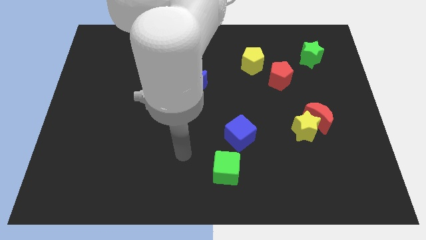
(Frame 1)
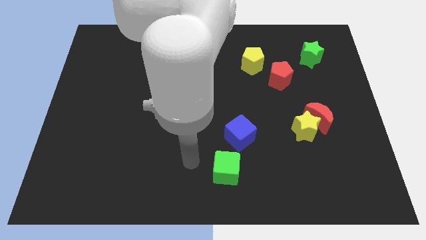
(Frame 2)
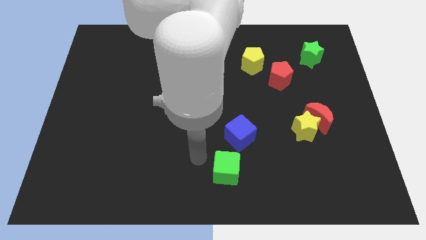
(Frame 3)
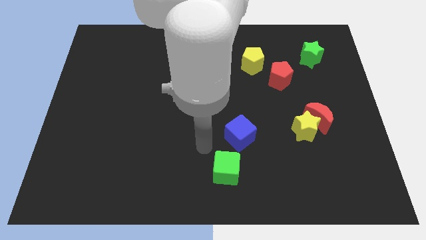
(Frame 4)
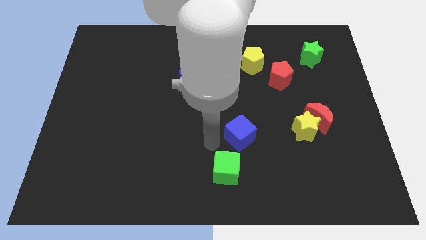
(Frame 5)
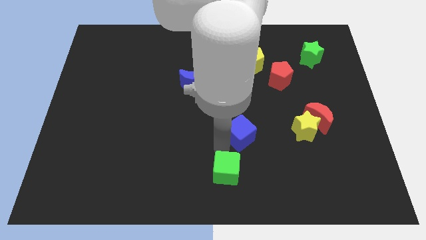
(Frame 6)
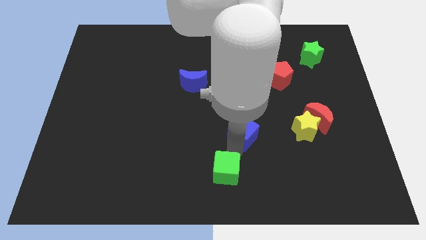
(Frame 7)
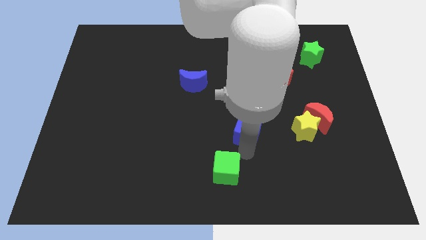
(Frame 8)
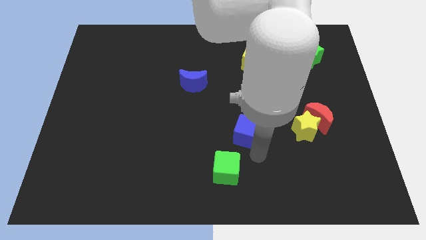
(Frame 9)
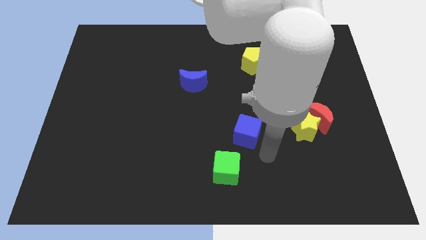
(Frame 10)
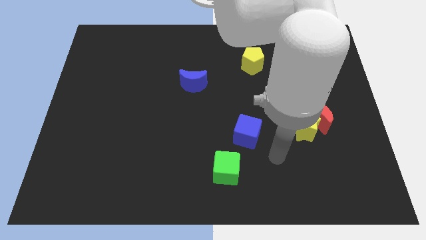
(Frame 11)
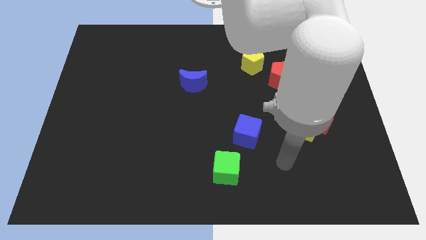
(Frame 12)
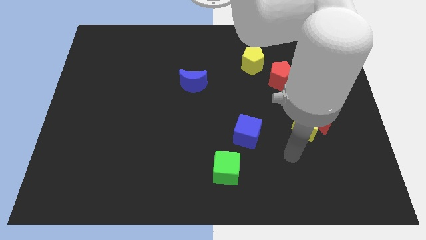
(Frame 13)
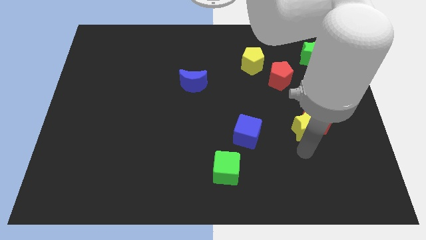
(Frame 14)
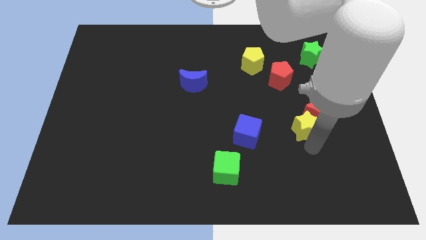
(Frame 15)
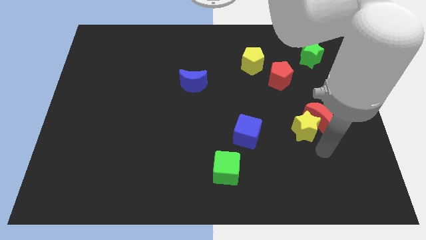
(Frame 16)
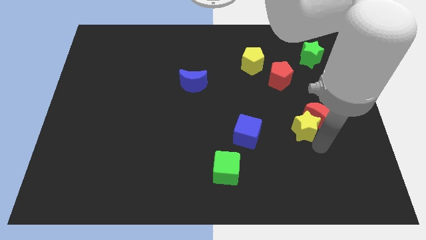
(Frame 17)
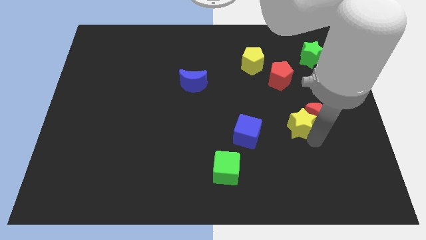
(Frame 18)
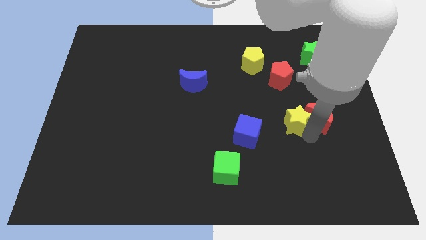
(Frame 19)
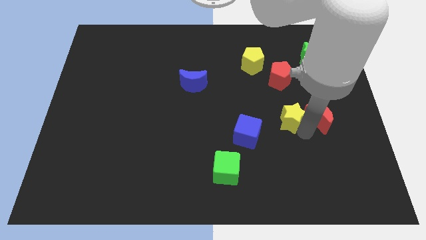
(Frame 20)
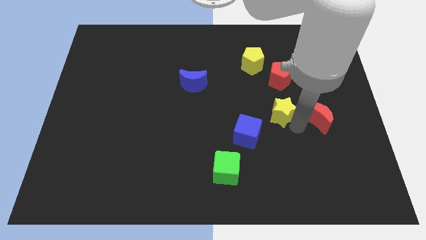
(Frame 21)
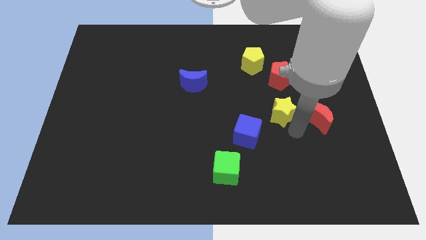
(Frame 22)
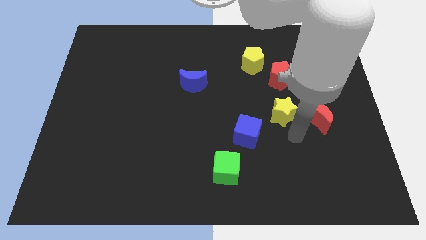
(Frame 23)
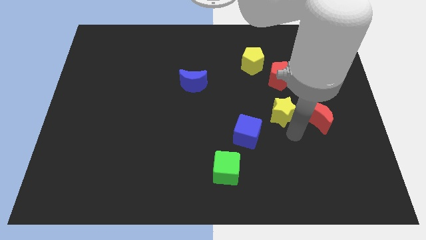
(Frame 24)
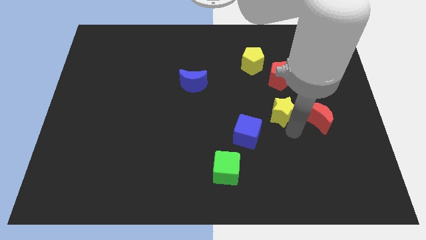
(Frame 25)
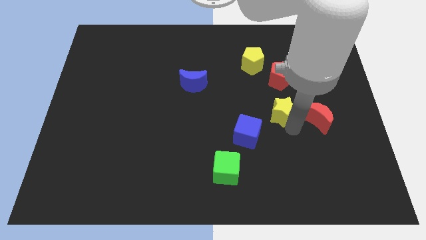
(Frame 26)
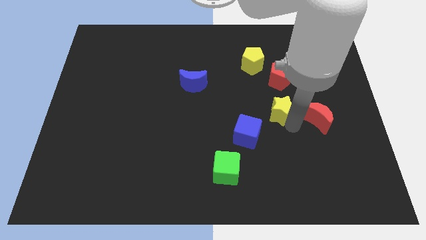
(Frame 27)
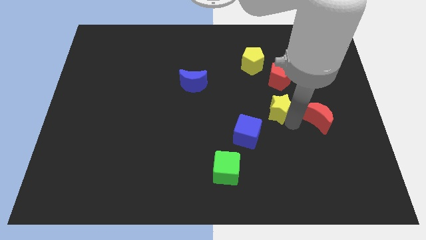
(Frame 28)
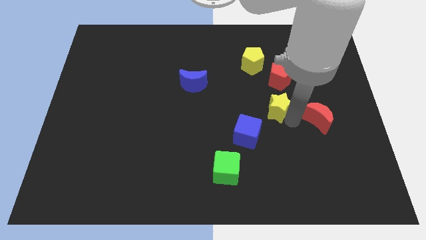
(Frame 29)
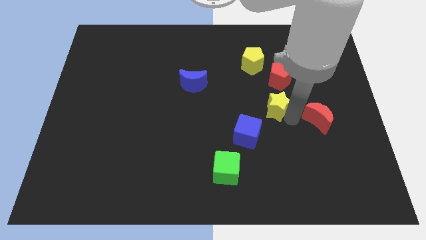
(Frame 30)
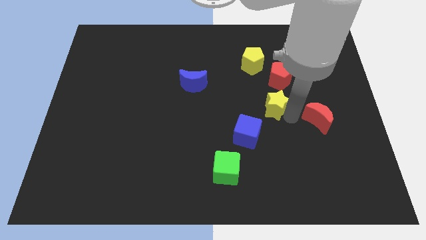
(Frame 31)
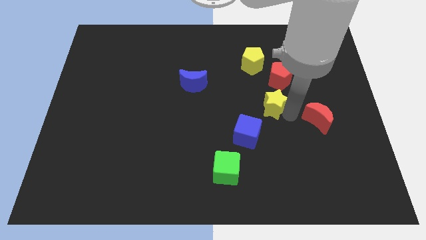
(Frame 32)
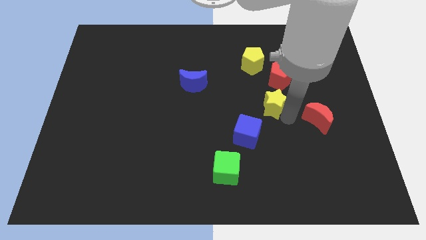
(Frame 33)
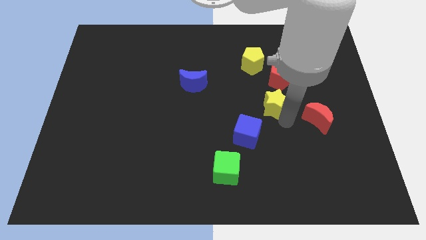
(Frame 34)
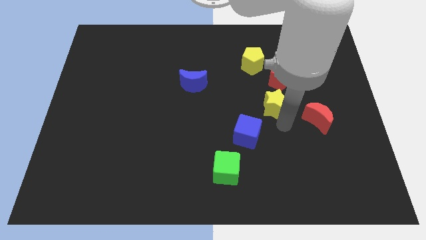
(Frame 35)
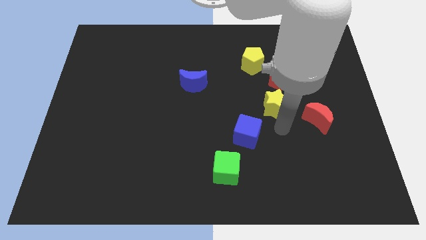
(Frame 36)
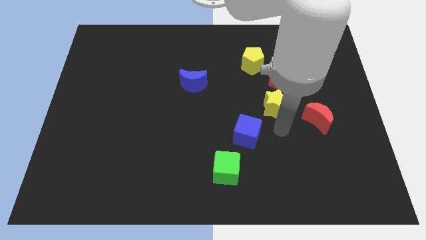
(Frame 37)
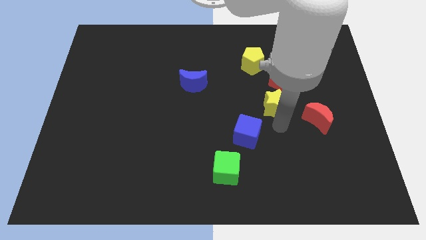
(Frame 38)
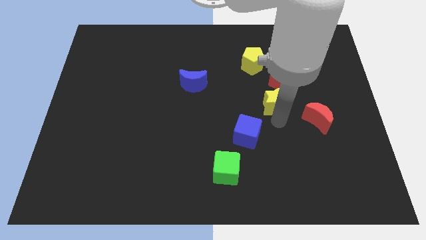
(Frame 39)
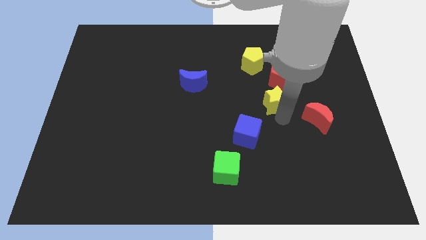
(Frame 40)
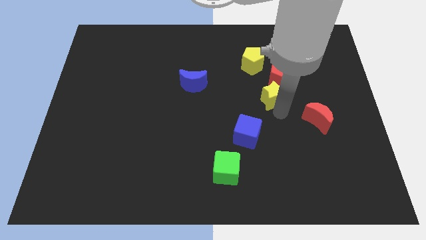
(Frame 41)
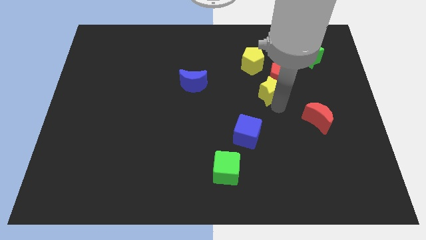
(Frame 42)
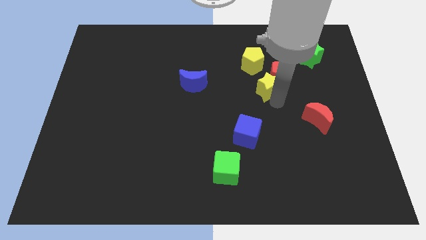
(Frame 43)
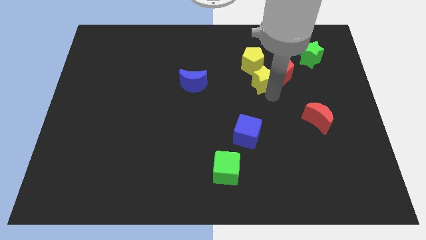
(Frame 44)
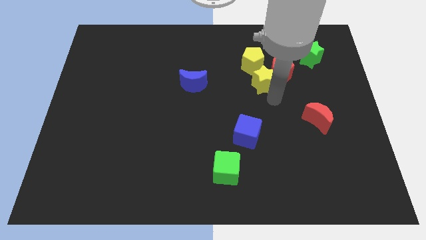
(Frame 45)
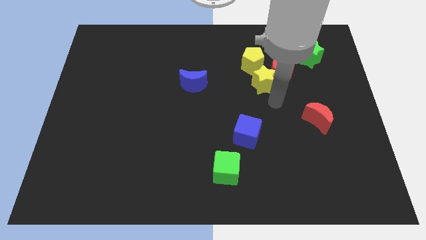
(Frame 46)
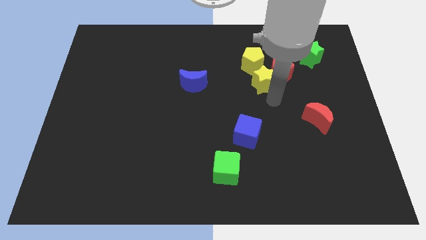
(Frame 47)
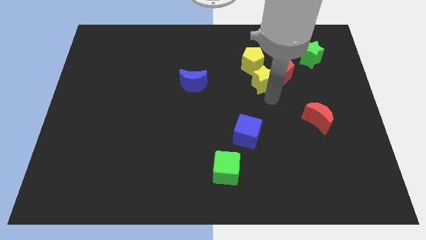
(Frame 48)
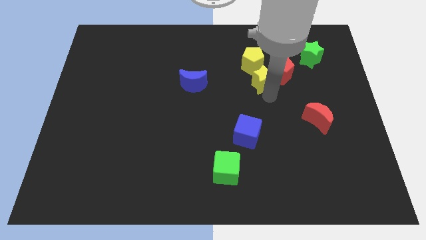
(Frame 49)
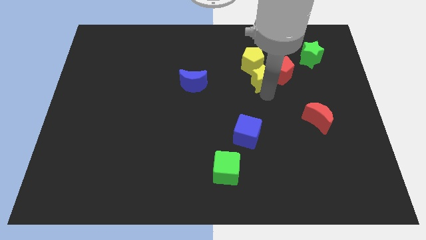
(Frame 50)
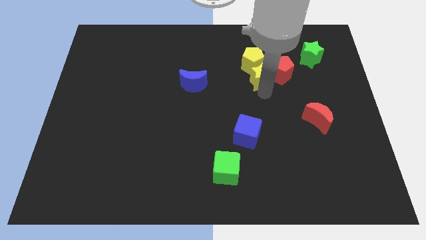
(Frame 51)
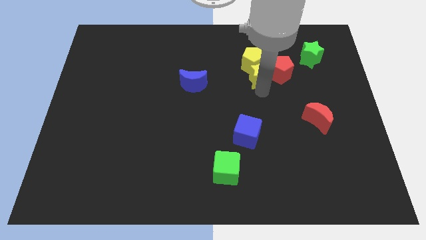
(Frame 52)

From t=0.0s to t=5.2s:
move the yellow star towards the yellow pentagon

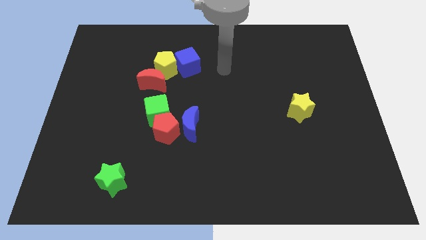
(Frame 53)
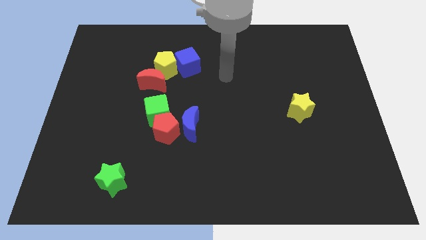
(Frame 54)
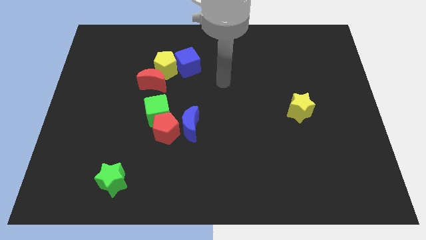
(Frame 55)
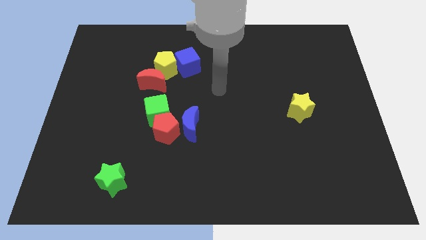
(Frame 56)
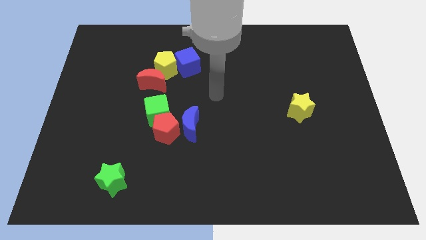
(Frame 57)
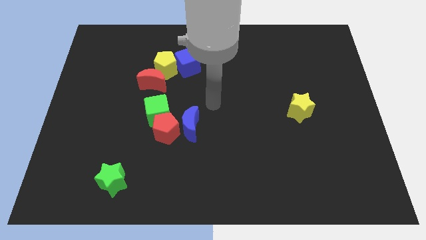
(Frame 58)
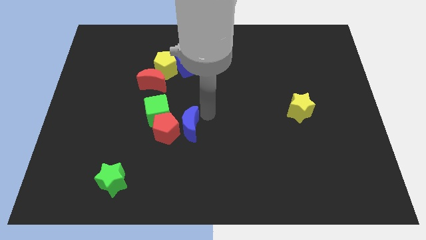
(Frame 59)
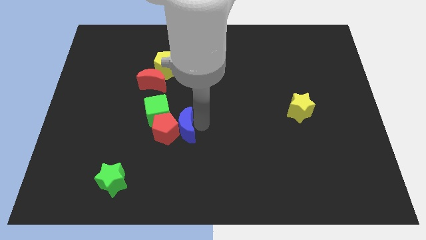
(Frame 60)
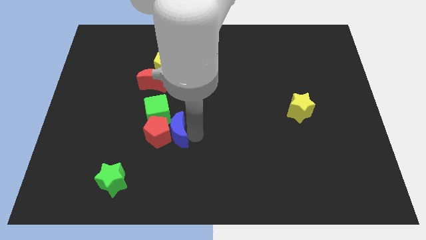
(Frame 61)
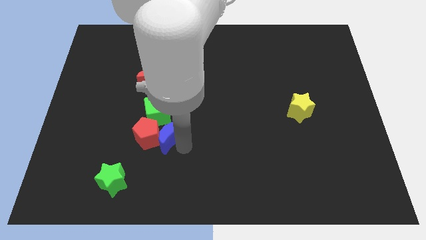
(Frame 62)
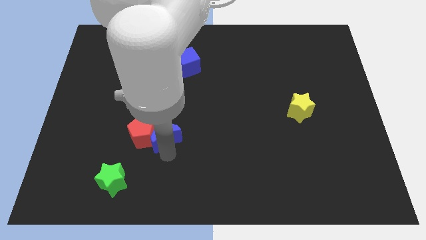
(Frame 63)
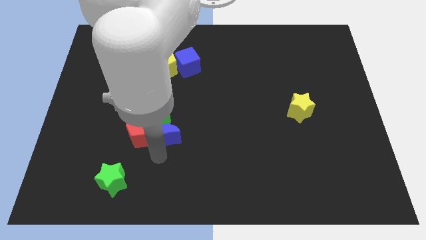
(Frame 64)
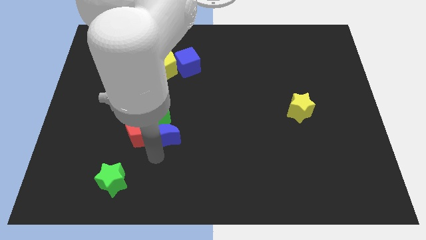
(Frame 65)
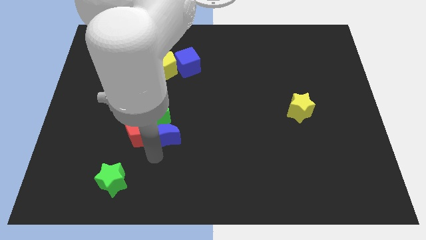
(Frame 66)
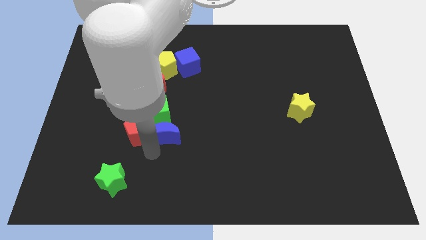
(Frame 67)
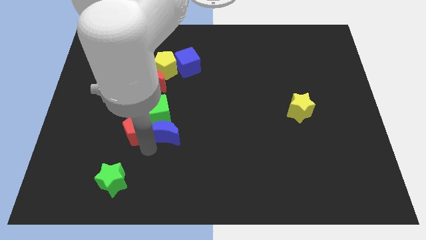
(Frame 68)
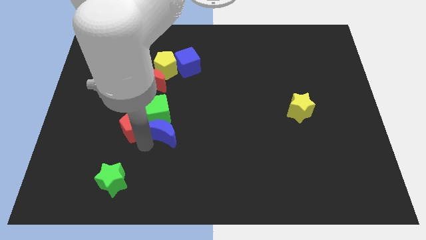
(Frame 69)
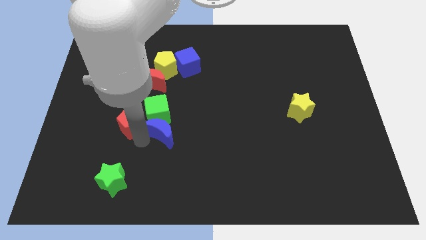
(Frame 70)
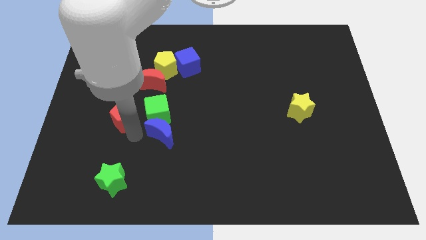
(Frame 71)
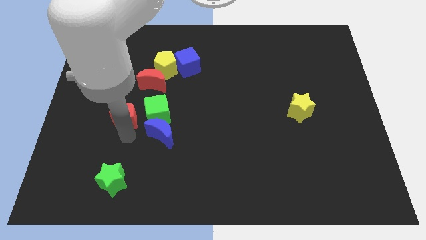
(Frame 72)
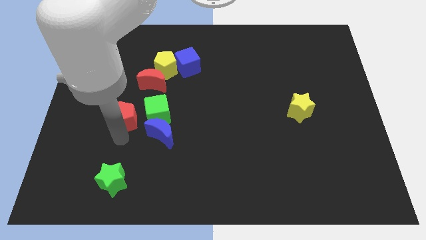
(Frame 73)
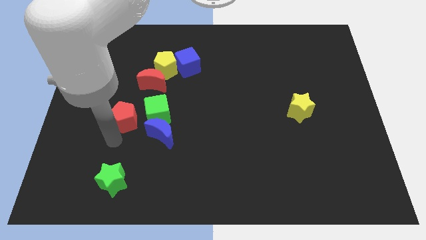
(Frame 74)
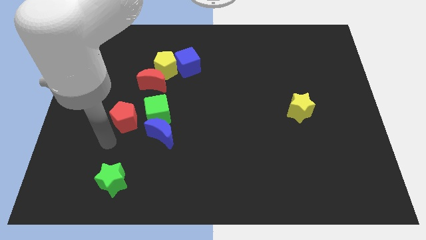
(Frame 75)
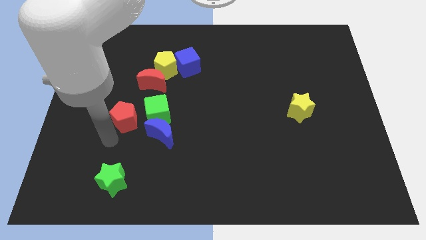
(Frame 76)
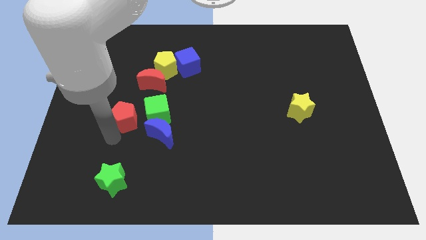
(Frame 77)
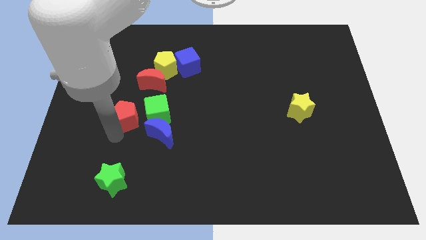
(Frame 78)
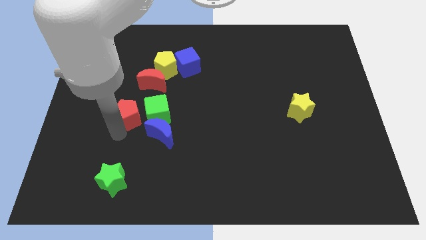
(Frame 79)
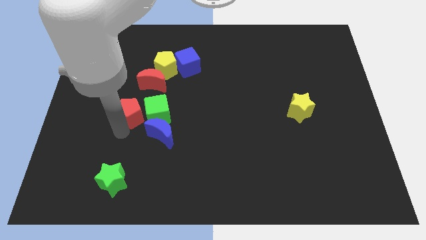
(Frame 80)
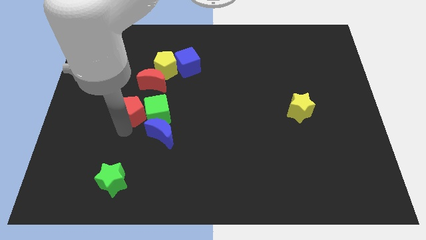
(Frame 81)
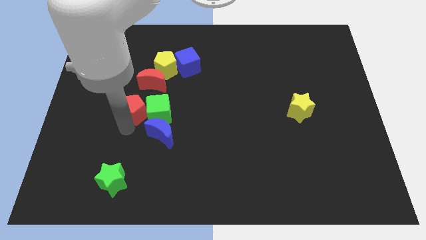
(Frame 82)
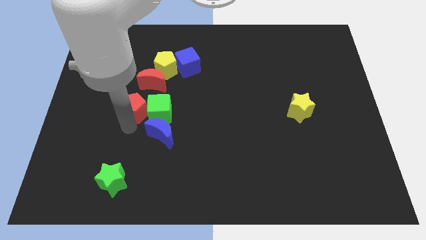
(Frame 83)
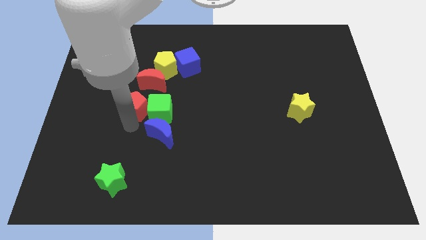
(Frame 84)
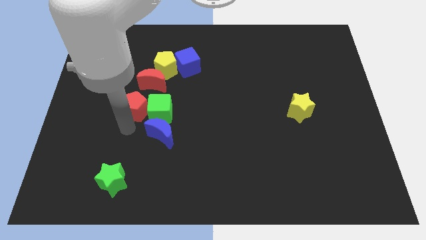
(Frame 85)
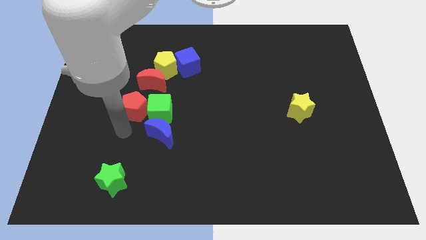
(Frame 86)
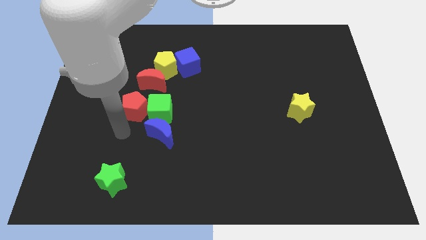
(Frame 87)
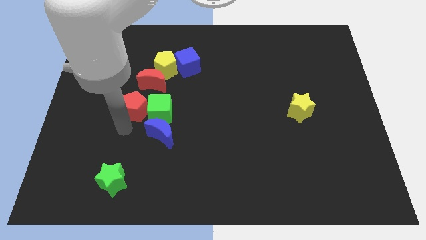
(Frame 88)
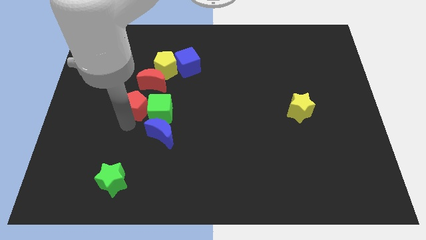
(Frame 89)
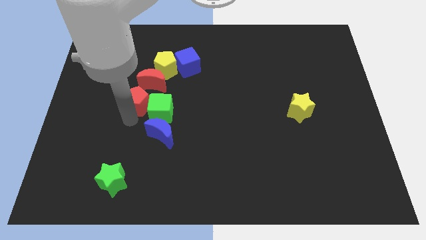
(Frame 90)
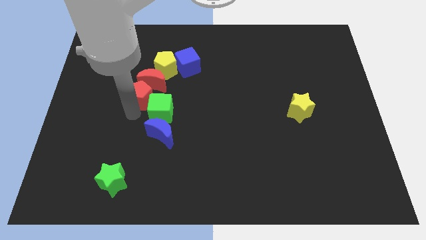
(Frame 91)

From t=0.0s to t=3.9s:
slide the red pentagon to the red moon
